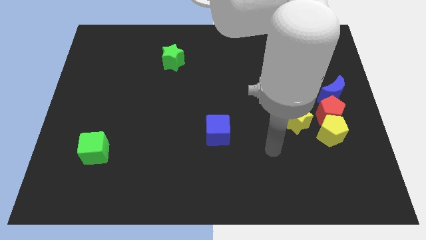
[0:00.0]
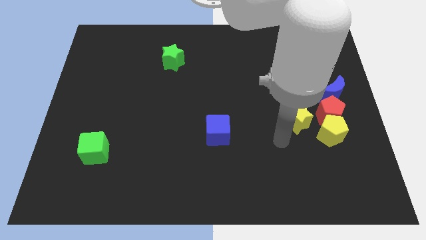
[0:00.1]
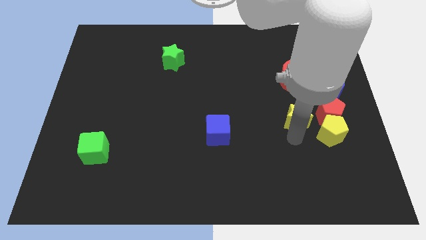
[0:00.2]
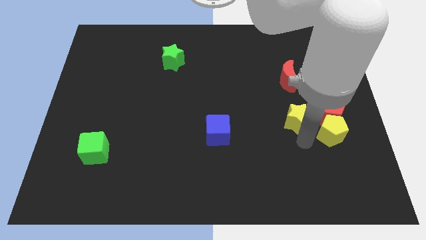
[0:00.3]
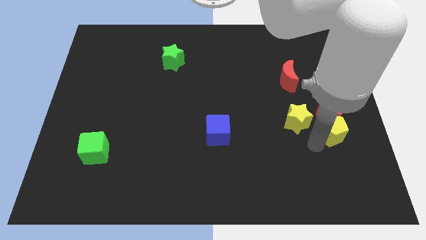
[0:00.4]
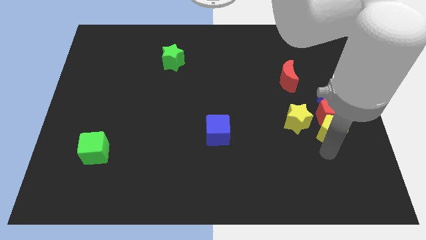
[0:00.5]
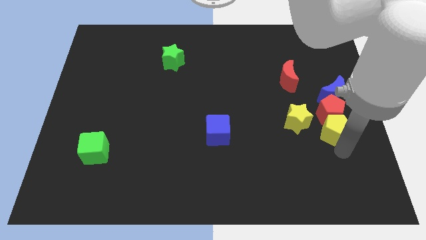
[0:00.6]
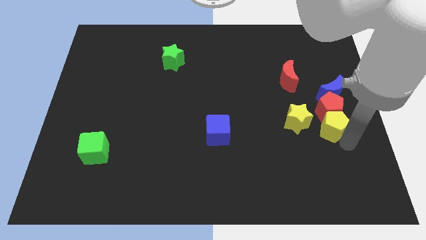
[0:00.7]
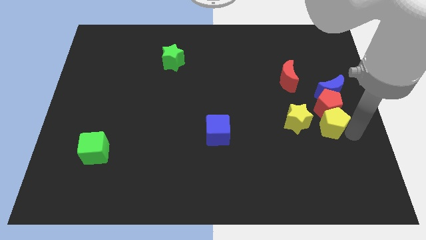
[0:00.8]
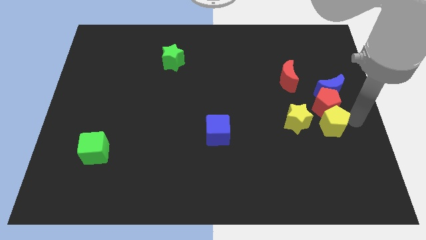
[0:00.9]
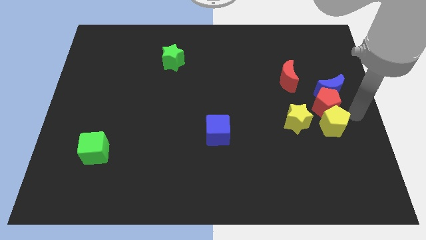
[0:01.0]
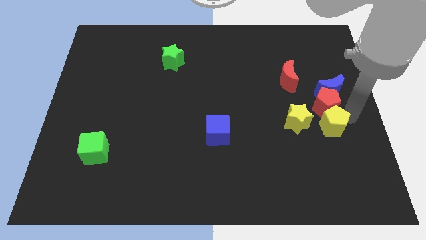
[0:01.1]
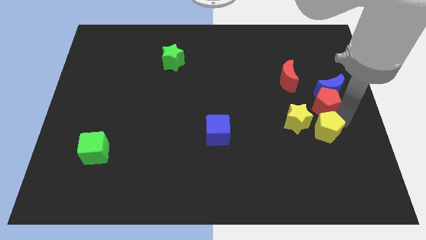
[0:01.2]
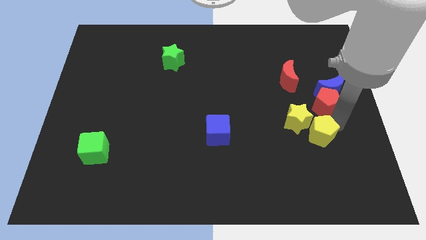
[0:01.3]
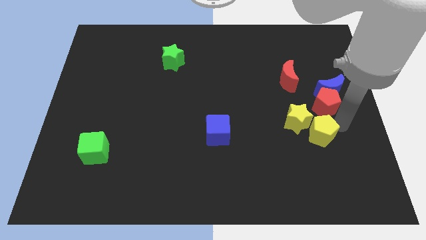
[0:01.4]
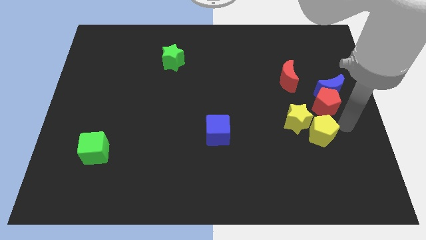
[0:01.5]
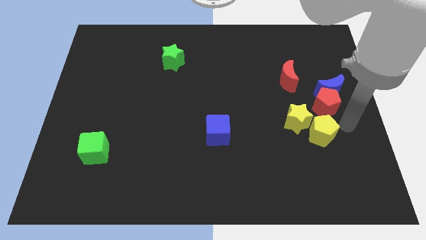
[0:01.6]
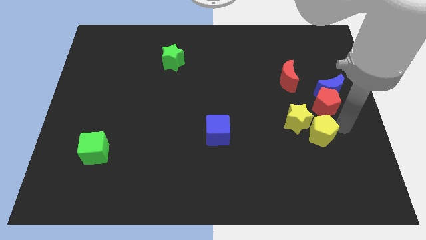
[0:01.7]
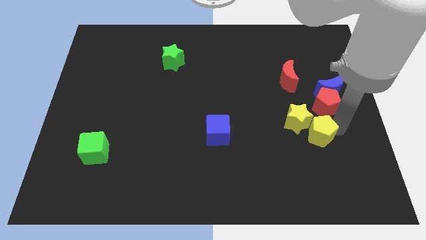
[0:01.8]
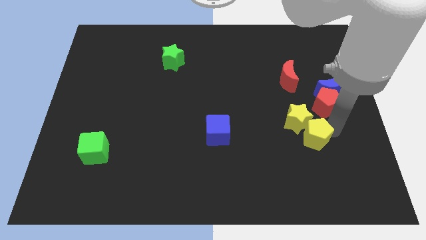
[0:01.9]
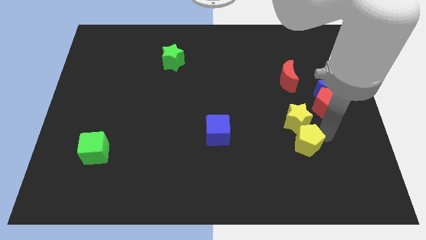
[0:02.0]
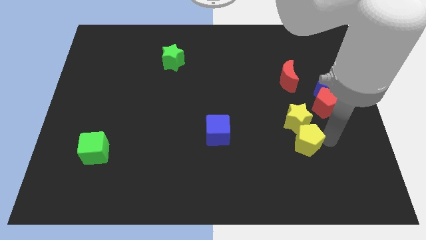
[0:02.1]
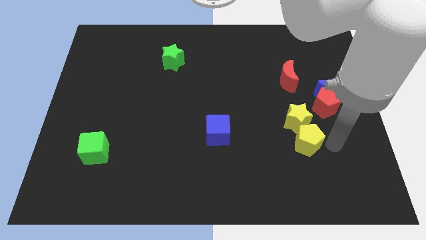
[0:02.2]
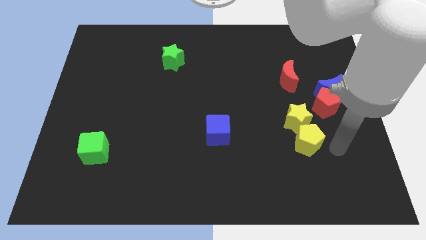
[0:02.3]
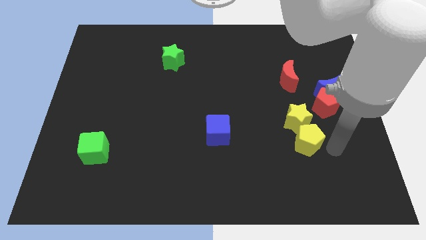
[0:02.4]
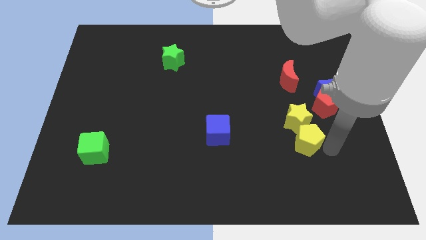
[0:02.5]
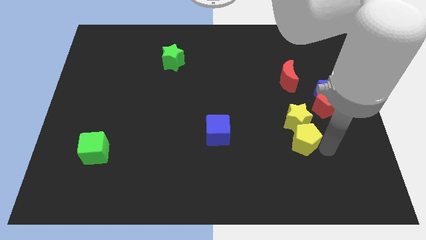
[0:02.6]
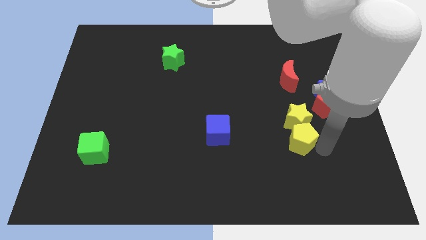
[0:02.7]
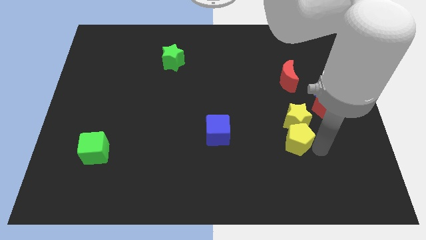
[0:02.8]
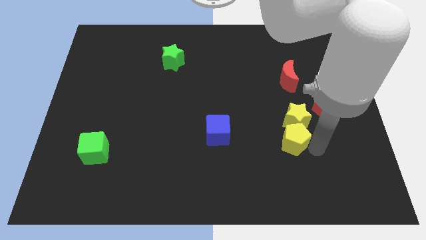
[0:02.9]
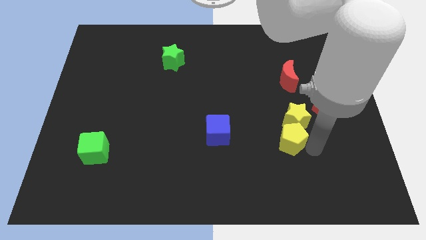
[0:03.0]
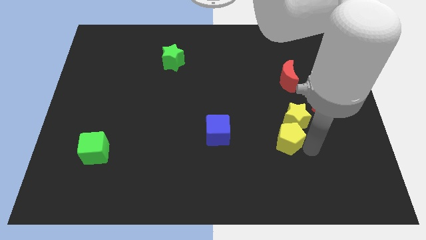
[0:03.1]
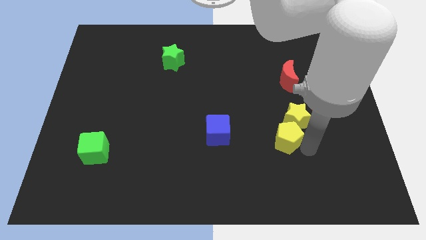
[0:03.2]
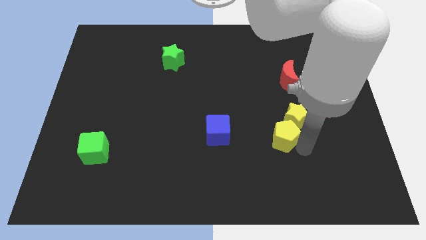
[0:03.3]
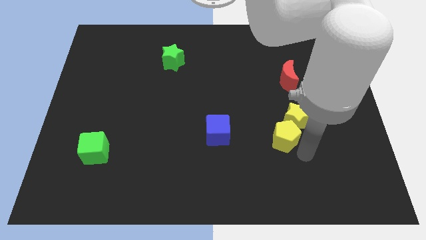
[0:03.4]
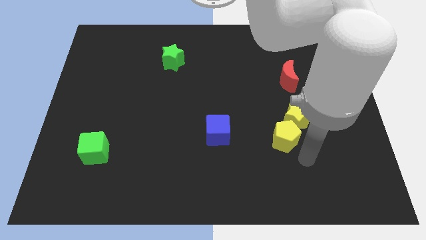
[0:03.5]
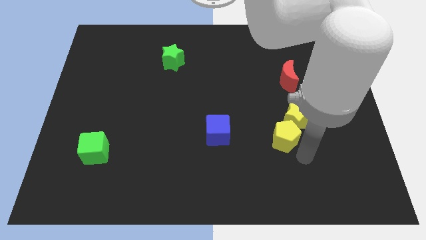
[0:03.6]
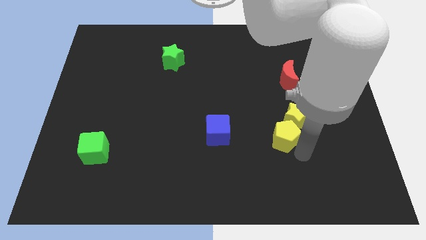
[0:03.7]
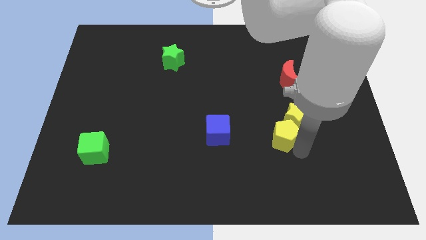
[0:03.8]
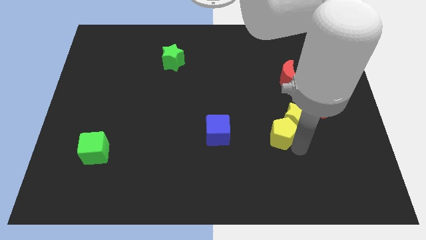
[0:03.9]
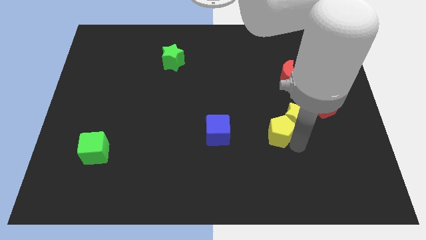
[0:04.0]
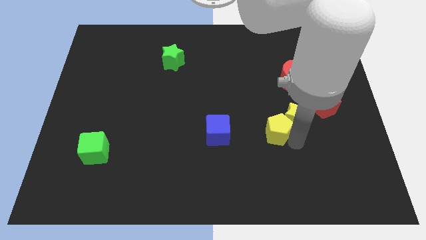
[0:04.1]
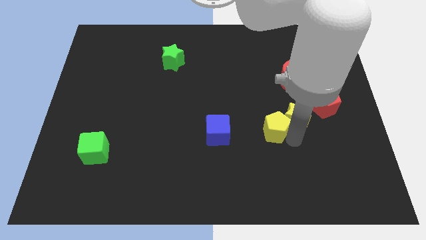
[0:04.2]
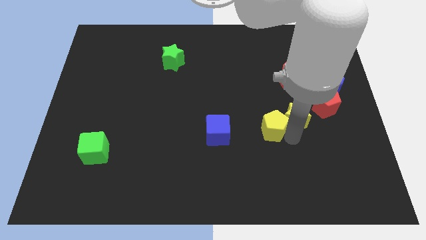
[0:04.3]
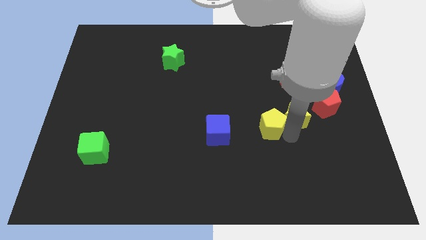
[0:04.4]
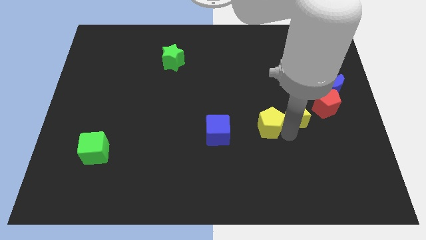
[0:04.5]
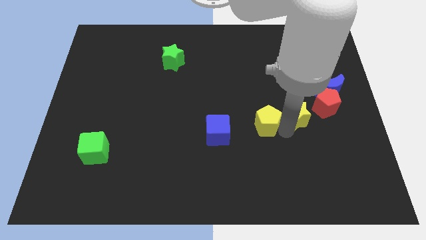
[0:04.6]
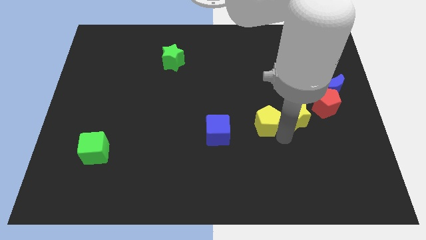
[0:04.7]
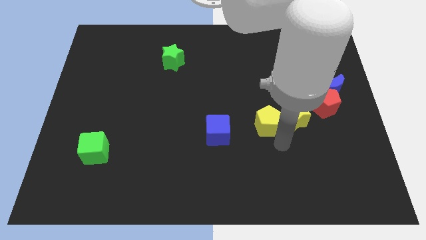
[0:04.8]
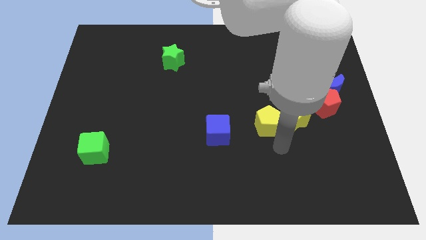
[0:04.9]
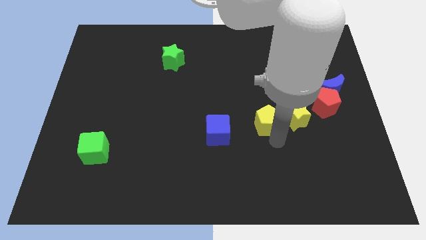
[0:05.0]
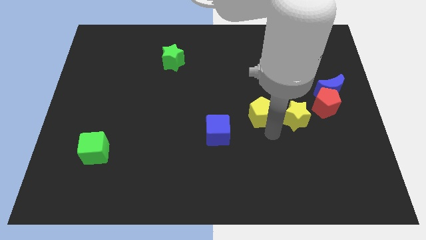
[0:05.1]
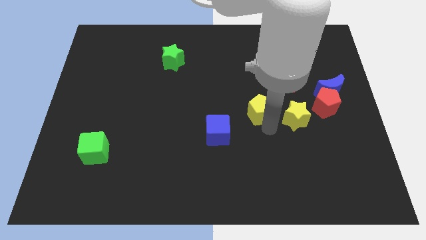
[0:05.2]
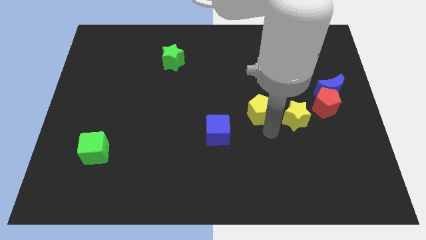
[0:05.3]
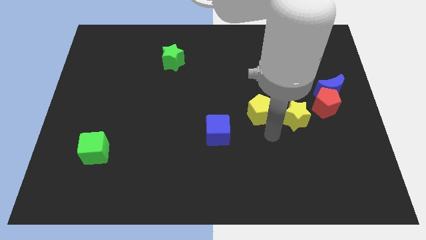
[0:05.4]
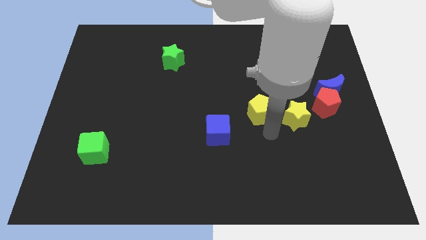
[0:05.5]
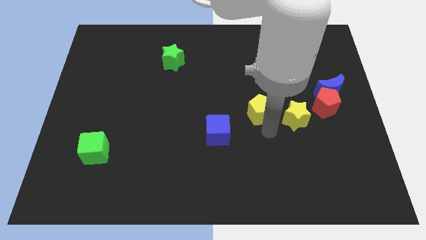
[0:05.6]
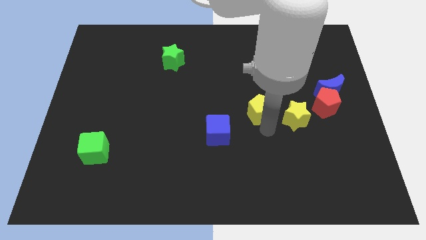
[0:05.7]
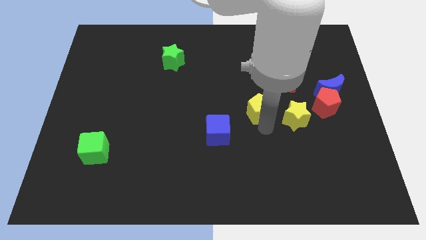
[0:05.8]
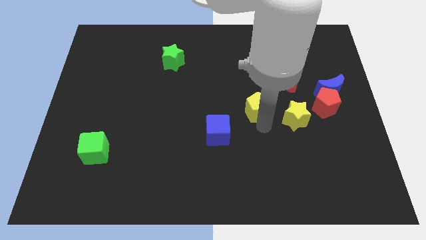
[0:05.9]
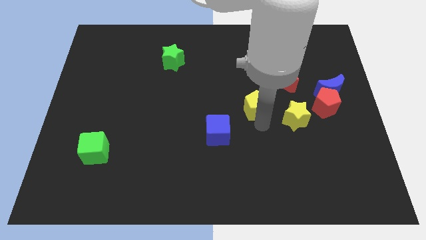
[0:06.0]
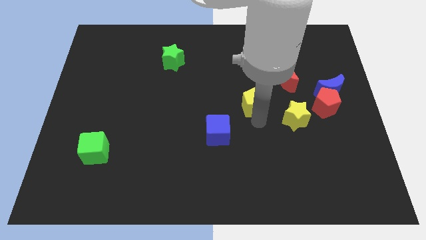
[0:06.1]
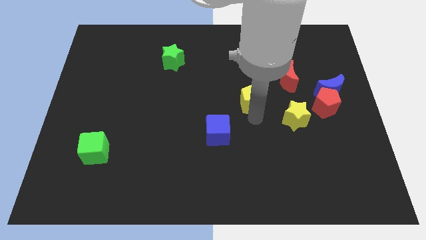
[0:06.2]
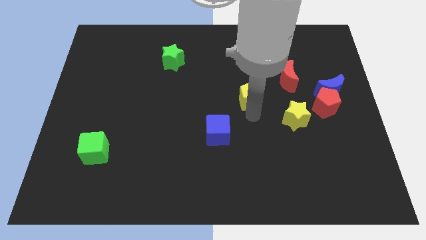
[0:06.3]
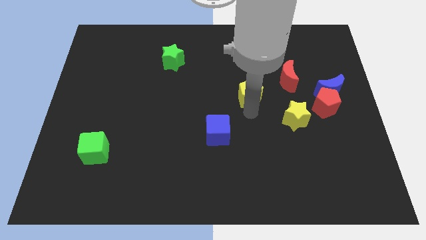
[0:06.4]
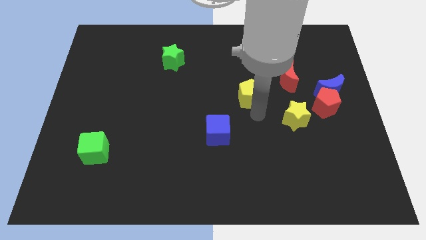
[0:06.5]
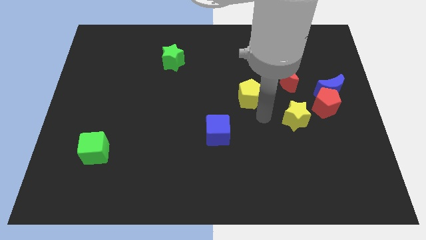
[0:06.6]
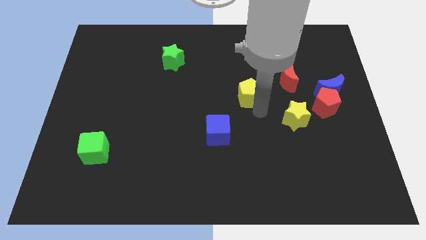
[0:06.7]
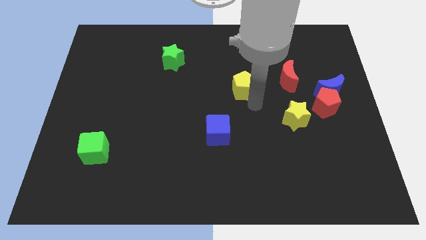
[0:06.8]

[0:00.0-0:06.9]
slide the yellow pentagon upwards and to the left diagonally

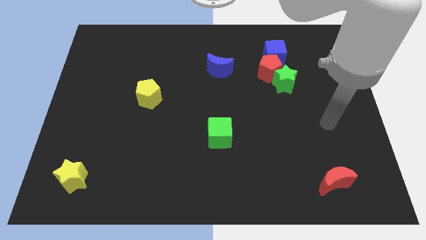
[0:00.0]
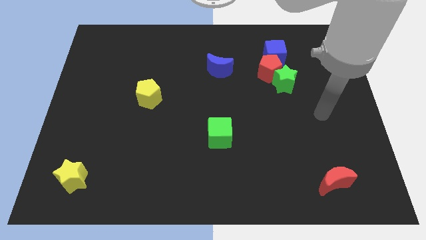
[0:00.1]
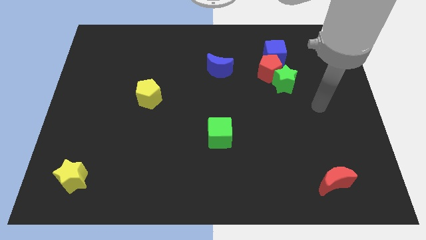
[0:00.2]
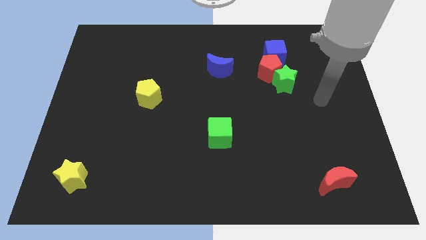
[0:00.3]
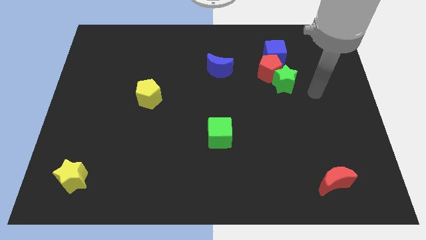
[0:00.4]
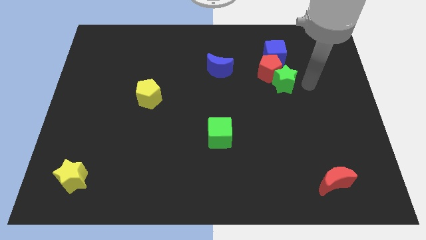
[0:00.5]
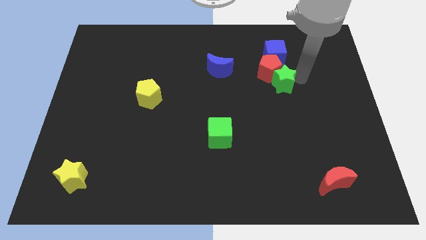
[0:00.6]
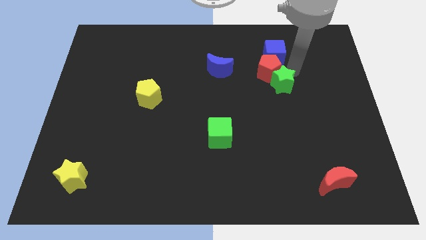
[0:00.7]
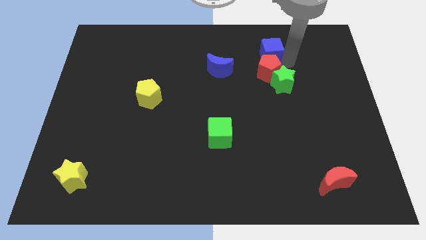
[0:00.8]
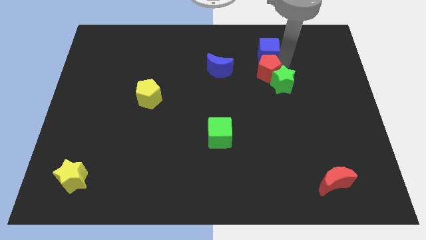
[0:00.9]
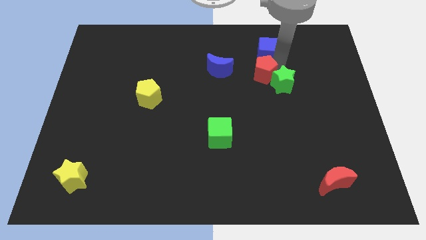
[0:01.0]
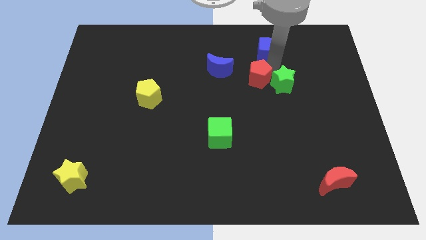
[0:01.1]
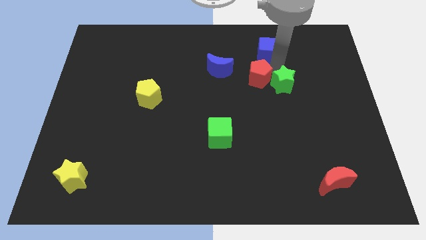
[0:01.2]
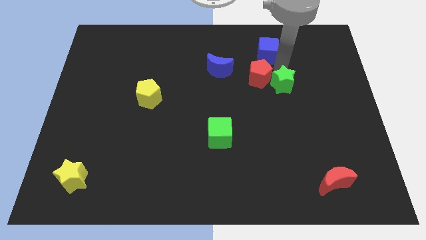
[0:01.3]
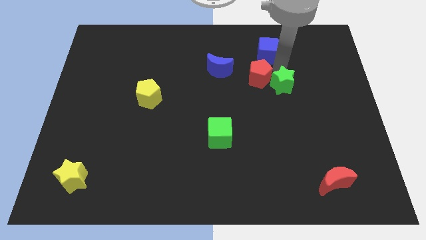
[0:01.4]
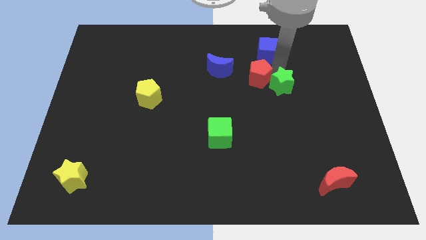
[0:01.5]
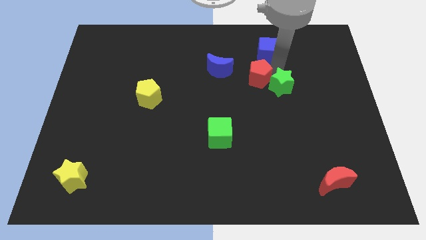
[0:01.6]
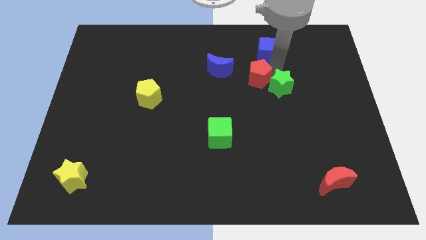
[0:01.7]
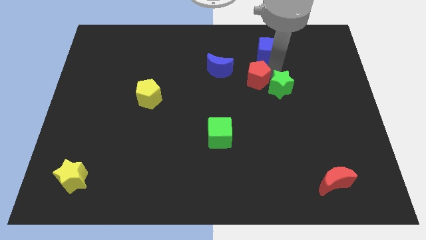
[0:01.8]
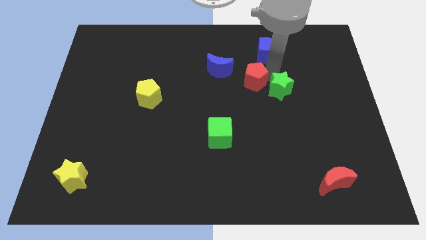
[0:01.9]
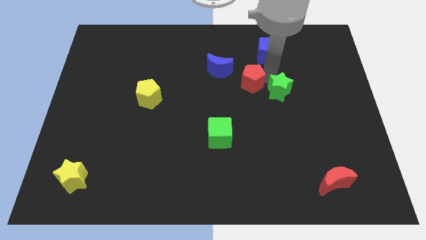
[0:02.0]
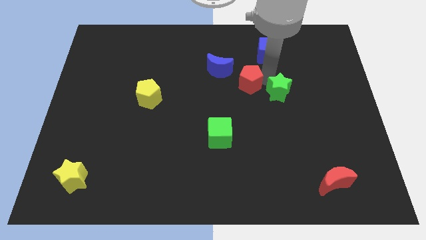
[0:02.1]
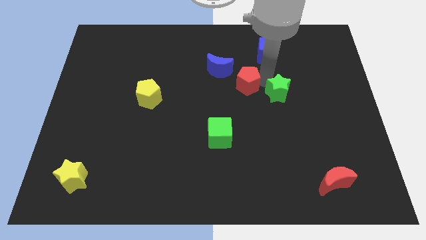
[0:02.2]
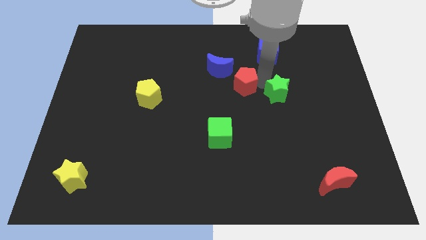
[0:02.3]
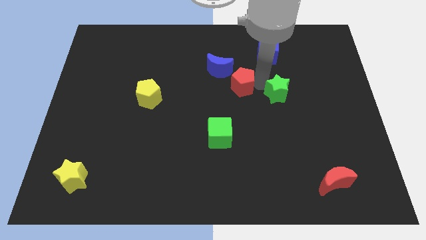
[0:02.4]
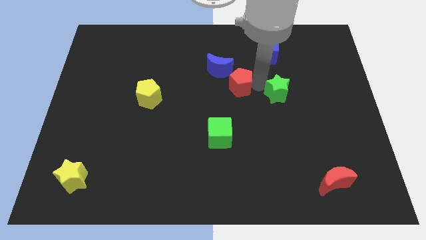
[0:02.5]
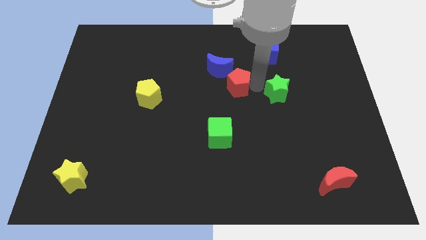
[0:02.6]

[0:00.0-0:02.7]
slightly move the red pentagon to the left
